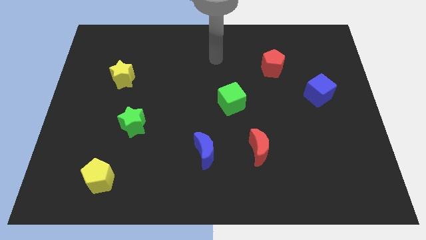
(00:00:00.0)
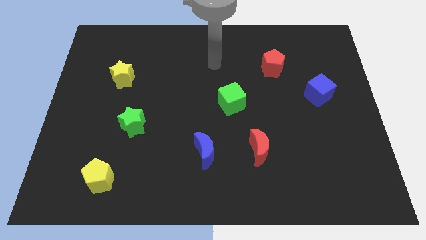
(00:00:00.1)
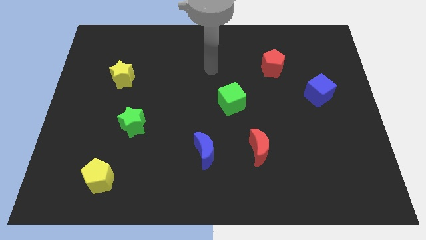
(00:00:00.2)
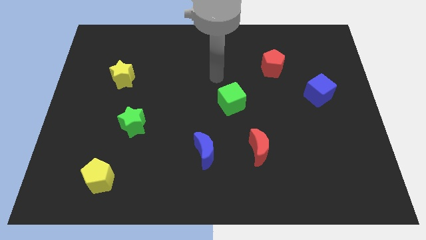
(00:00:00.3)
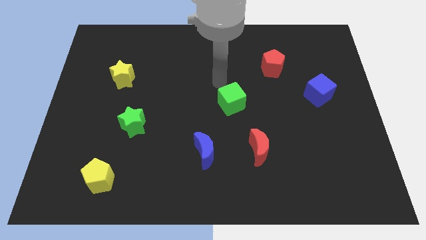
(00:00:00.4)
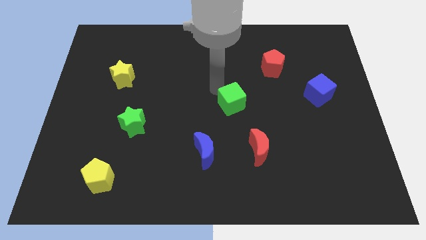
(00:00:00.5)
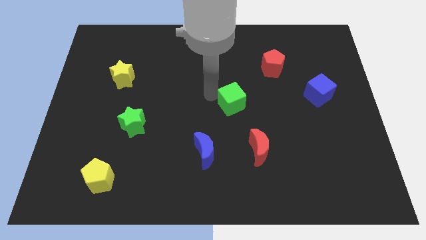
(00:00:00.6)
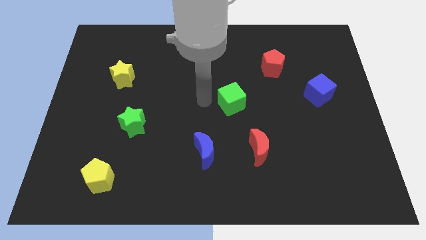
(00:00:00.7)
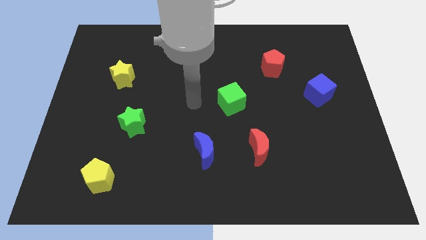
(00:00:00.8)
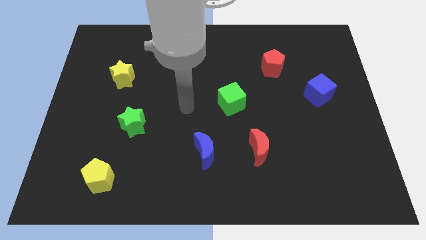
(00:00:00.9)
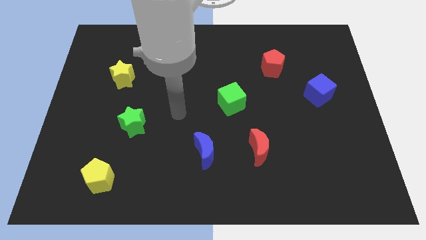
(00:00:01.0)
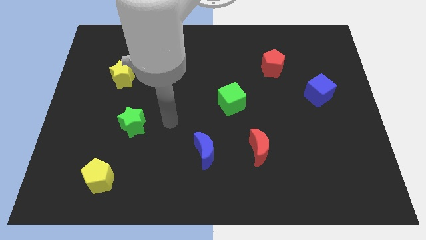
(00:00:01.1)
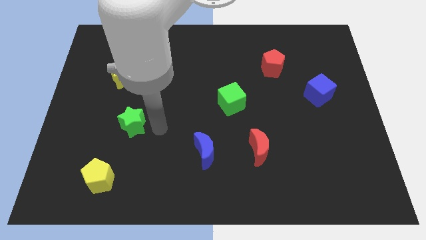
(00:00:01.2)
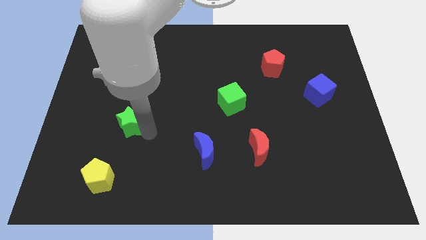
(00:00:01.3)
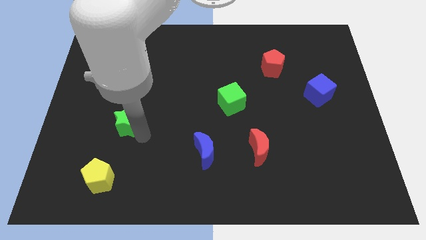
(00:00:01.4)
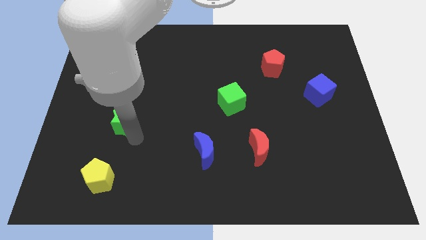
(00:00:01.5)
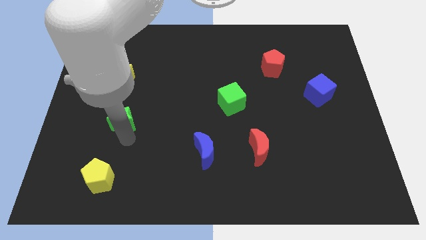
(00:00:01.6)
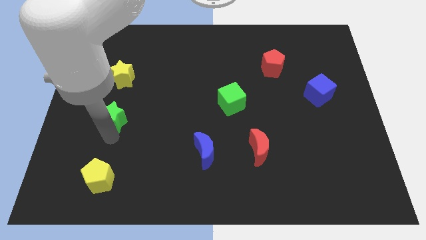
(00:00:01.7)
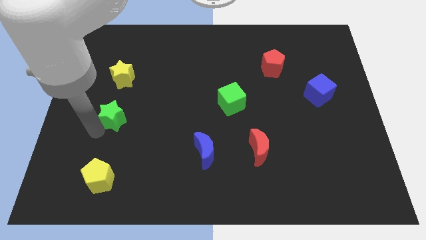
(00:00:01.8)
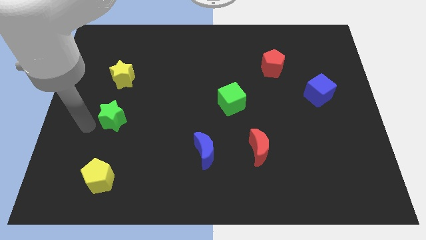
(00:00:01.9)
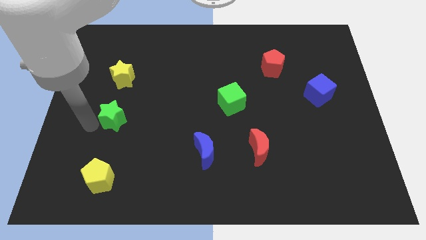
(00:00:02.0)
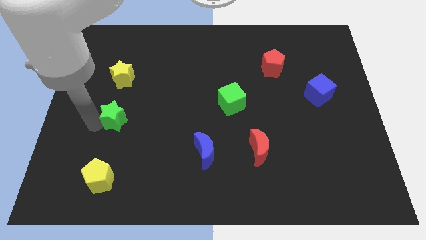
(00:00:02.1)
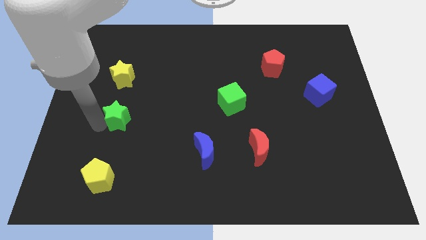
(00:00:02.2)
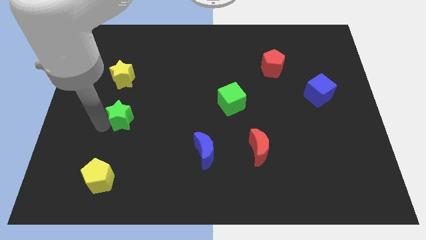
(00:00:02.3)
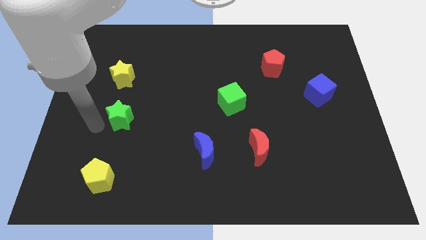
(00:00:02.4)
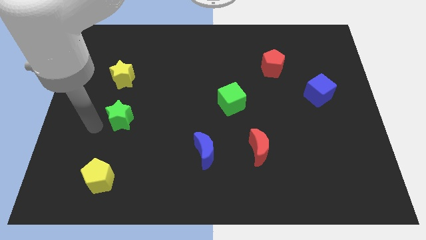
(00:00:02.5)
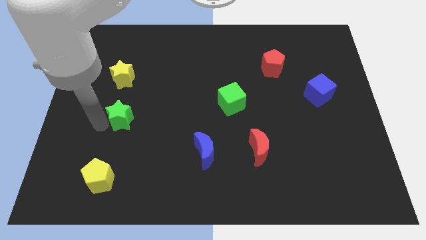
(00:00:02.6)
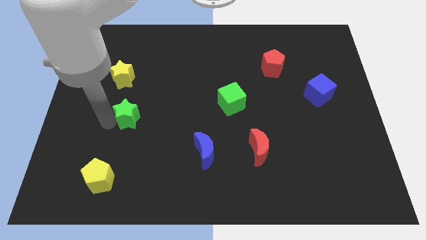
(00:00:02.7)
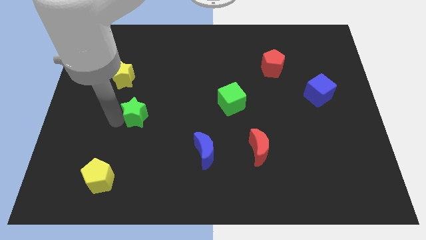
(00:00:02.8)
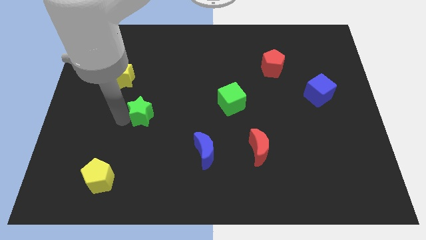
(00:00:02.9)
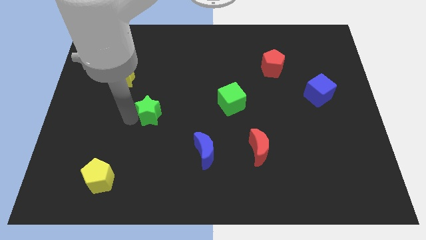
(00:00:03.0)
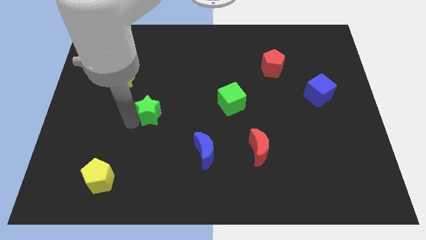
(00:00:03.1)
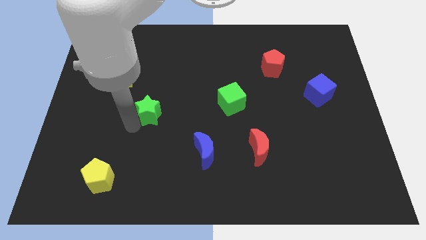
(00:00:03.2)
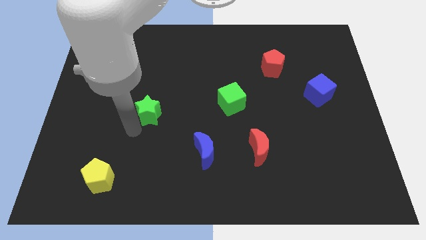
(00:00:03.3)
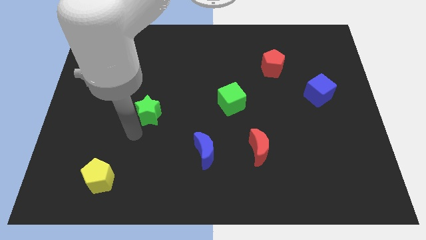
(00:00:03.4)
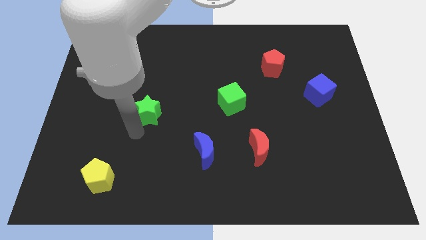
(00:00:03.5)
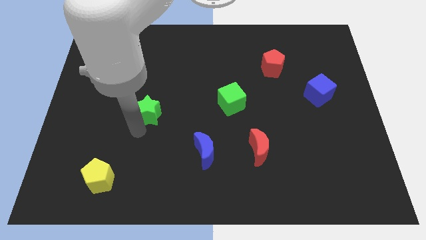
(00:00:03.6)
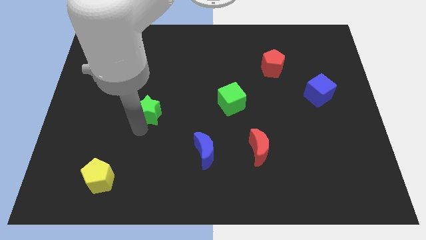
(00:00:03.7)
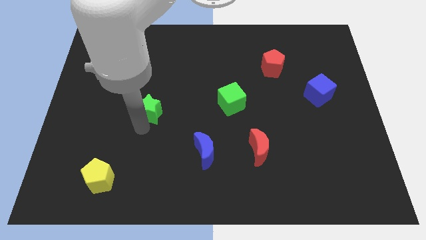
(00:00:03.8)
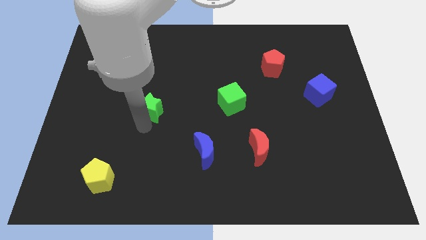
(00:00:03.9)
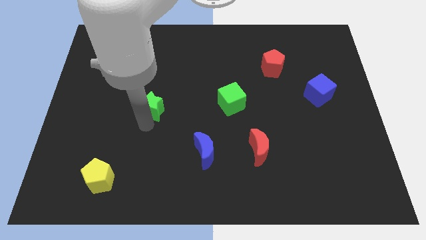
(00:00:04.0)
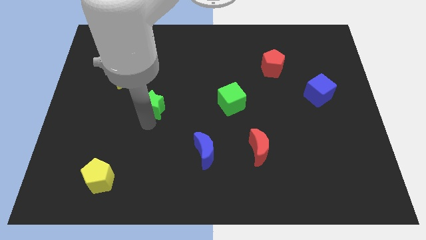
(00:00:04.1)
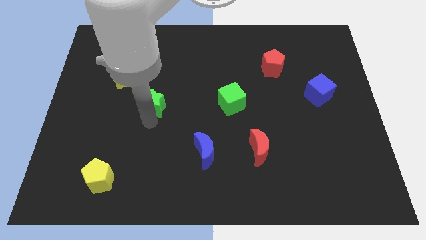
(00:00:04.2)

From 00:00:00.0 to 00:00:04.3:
move the green star somewhat upwards and to the right

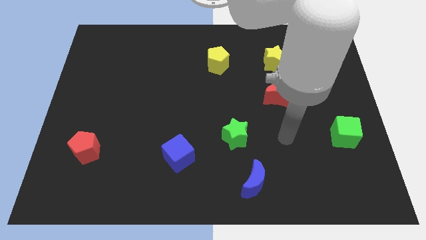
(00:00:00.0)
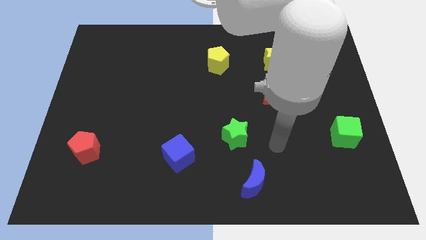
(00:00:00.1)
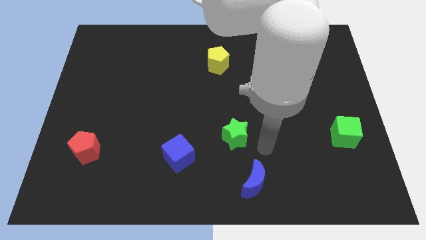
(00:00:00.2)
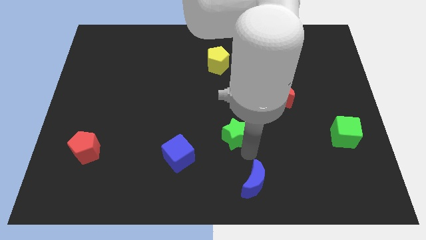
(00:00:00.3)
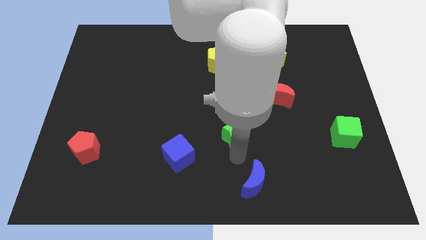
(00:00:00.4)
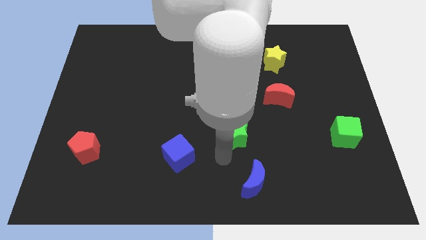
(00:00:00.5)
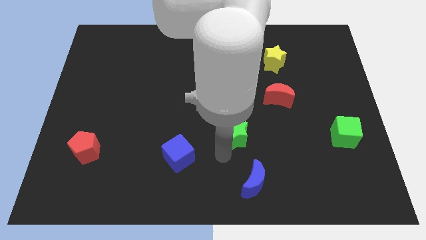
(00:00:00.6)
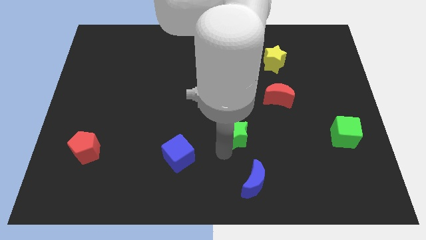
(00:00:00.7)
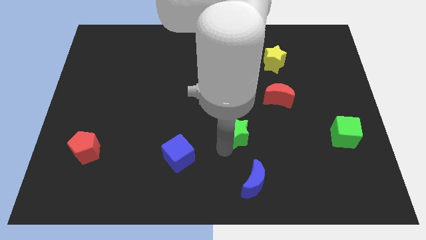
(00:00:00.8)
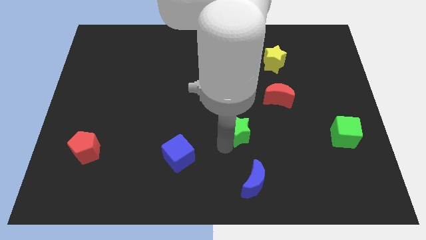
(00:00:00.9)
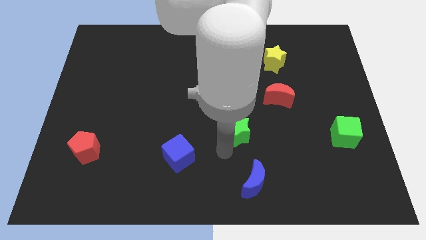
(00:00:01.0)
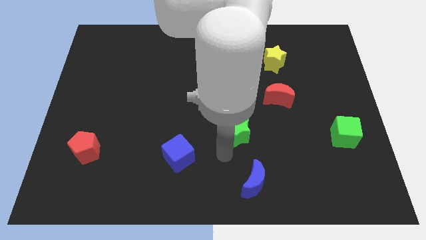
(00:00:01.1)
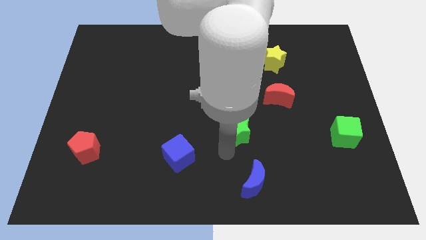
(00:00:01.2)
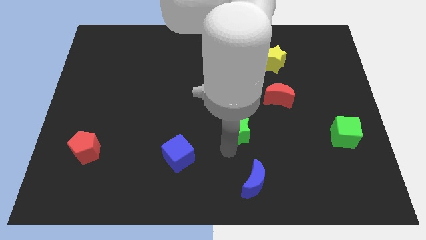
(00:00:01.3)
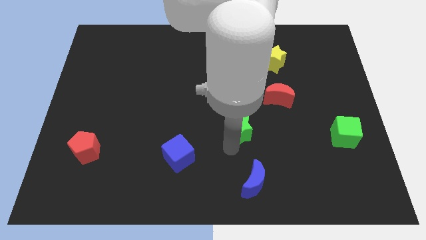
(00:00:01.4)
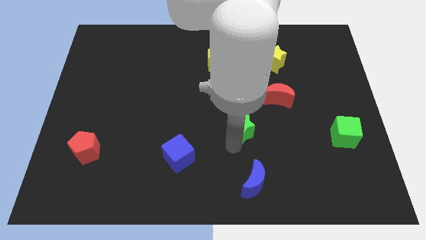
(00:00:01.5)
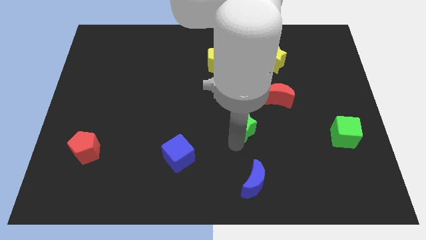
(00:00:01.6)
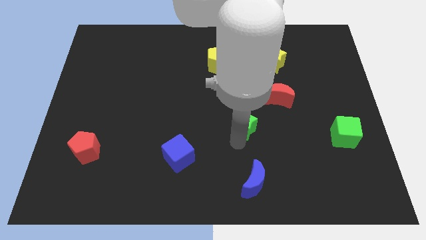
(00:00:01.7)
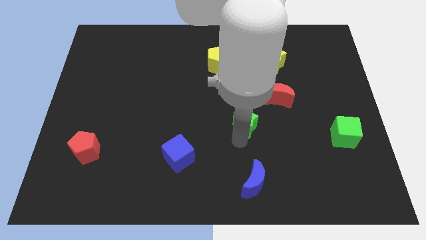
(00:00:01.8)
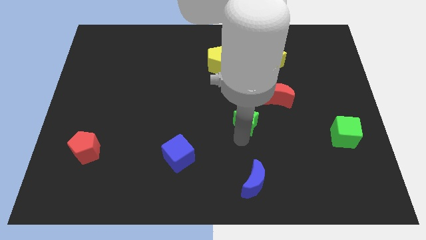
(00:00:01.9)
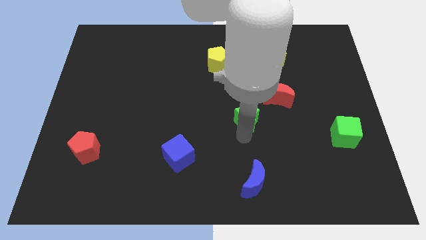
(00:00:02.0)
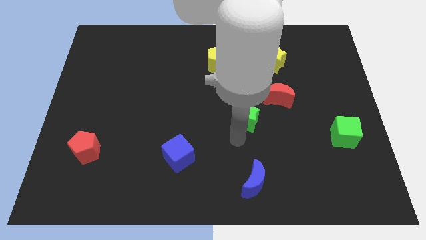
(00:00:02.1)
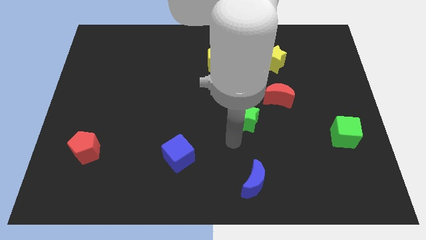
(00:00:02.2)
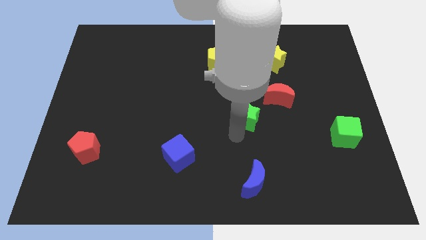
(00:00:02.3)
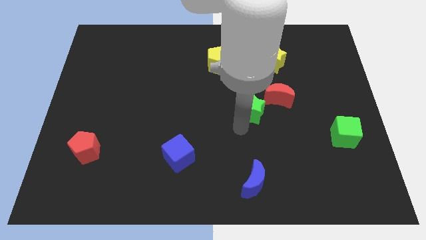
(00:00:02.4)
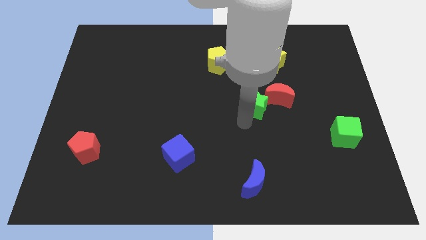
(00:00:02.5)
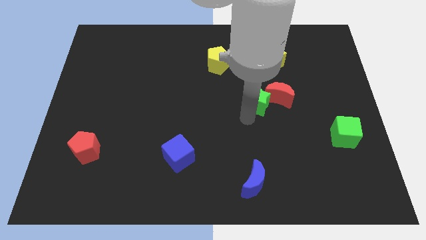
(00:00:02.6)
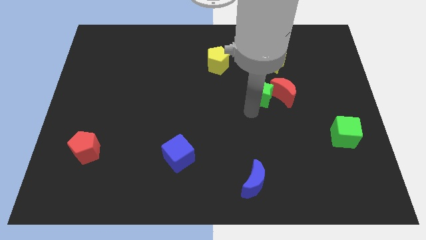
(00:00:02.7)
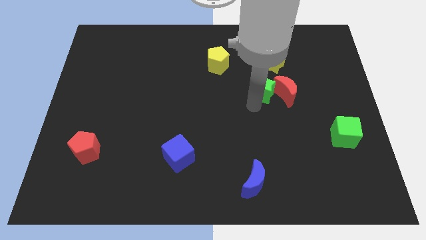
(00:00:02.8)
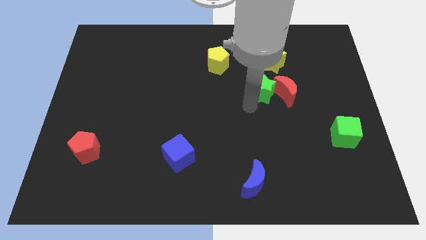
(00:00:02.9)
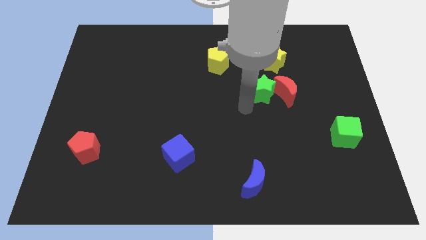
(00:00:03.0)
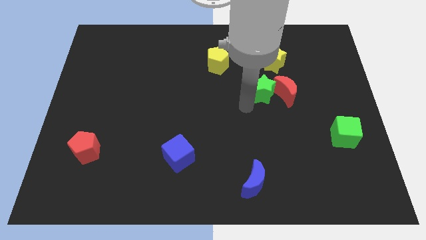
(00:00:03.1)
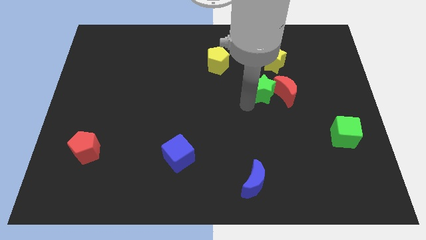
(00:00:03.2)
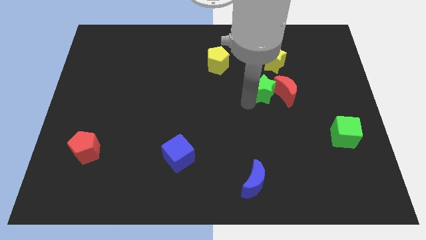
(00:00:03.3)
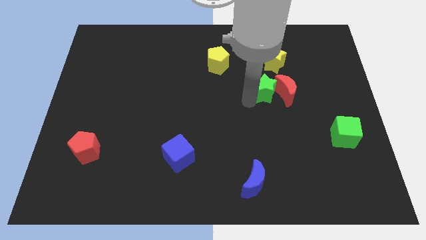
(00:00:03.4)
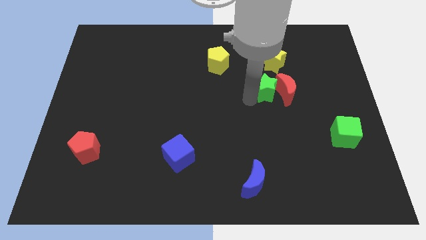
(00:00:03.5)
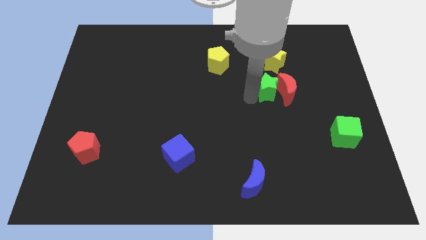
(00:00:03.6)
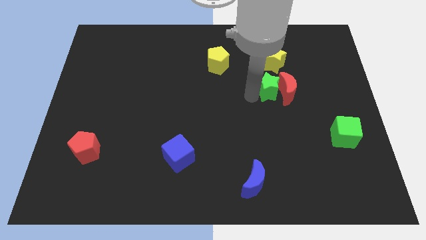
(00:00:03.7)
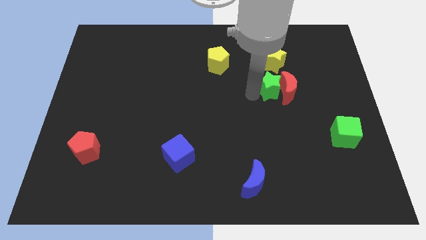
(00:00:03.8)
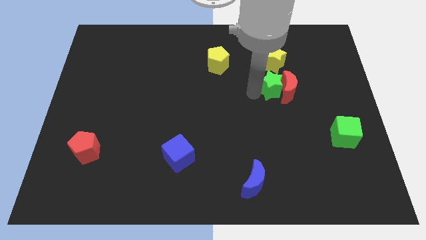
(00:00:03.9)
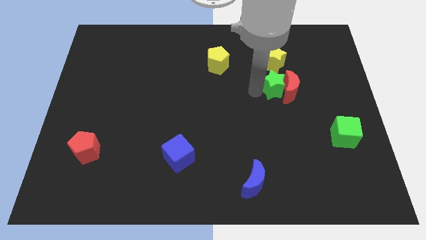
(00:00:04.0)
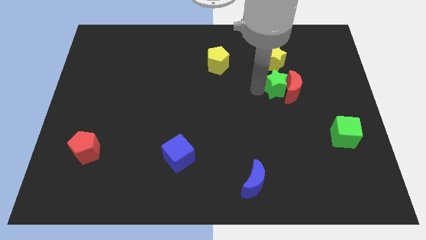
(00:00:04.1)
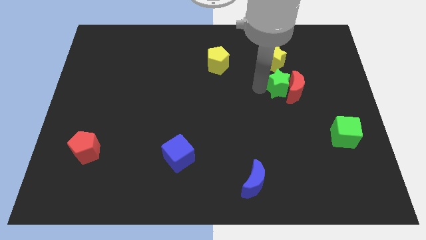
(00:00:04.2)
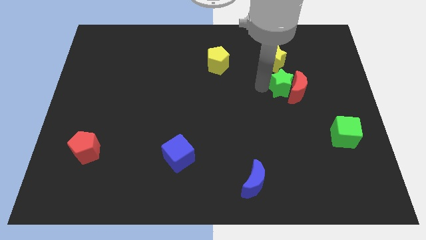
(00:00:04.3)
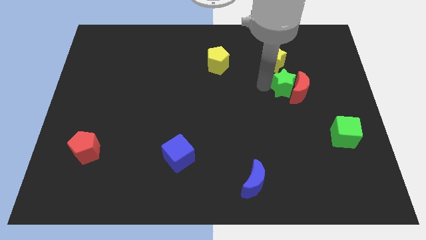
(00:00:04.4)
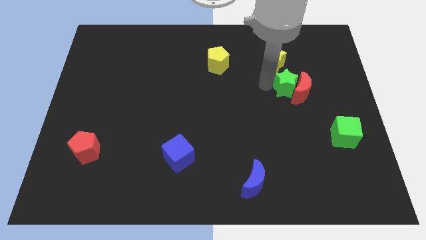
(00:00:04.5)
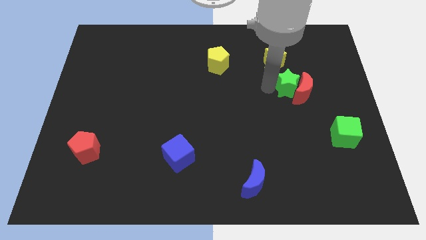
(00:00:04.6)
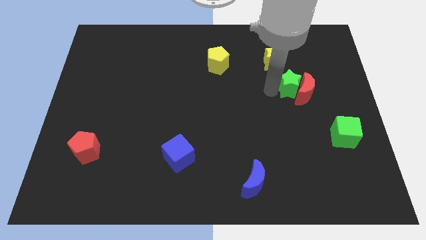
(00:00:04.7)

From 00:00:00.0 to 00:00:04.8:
slide the green star diagonally up and to the right
